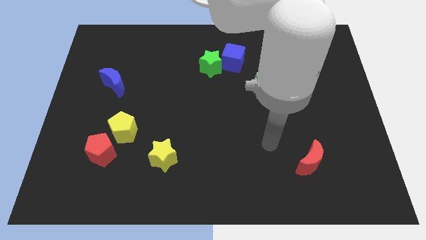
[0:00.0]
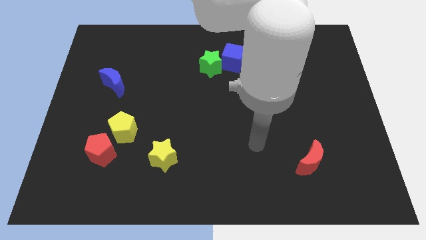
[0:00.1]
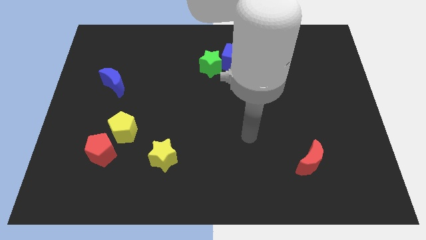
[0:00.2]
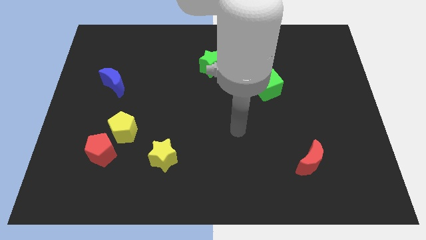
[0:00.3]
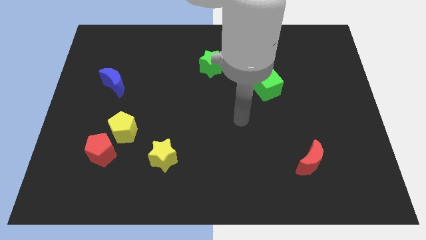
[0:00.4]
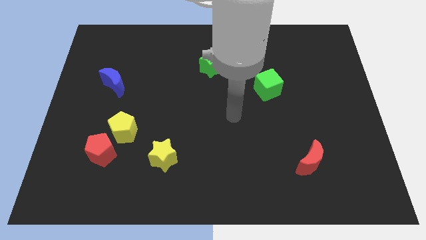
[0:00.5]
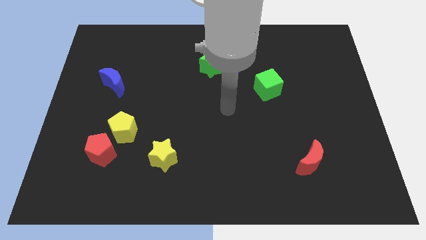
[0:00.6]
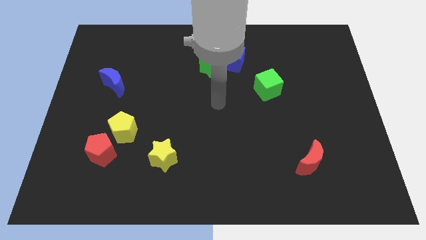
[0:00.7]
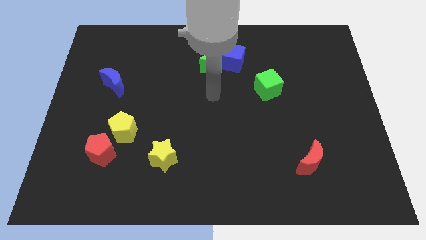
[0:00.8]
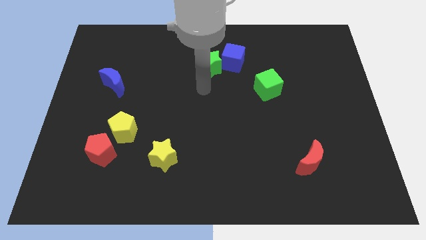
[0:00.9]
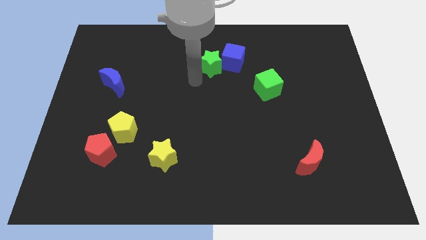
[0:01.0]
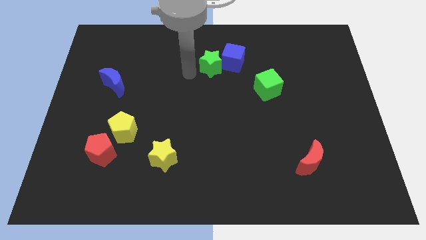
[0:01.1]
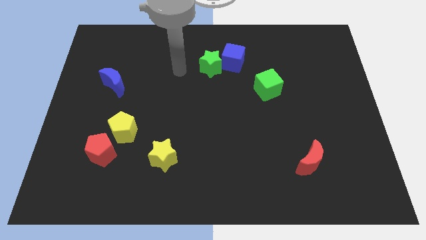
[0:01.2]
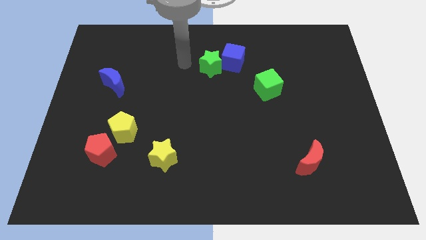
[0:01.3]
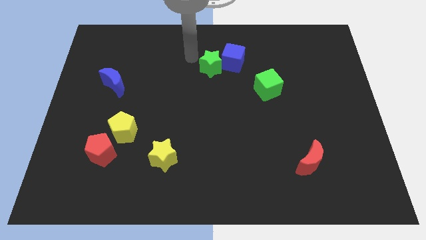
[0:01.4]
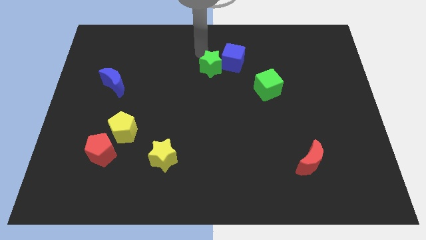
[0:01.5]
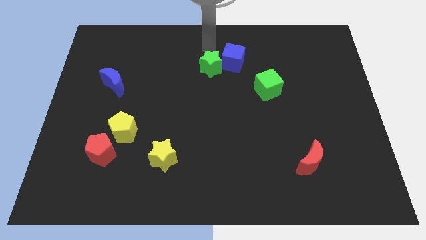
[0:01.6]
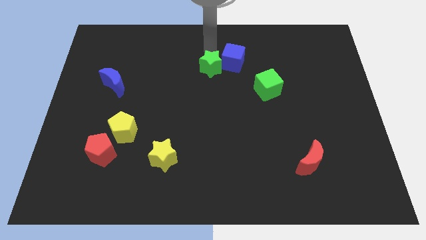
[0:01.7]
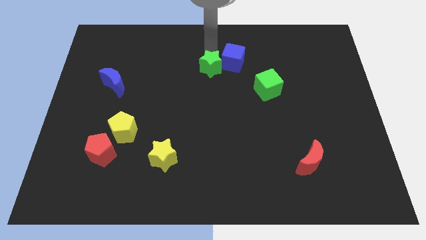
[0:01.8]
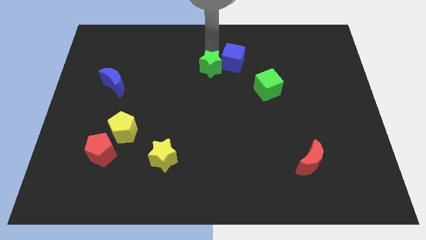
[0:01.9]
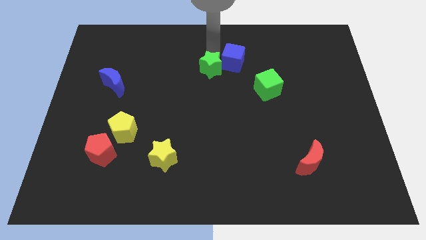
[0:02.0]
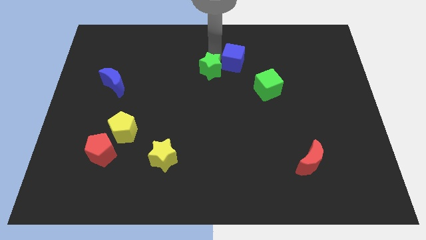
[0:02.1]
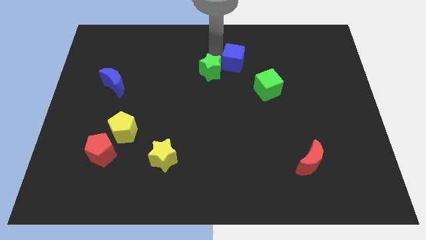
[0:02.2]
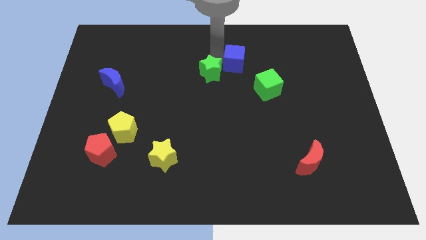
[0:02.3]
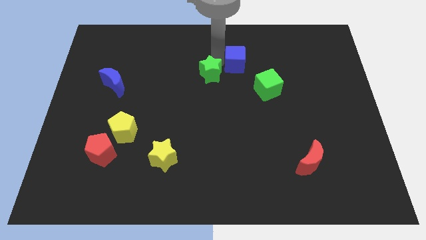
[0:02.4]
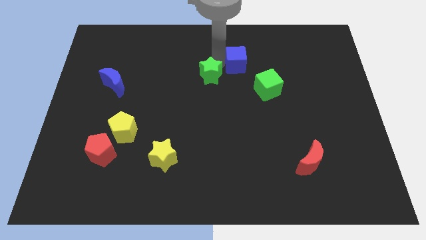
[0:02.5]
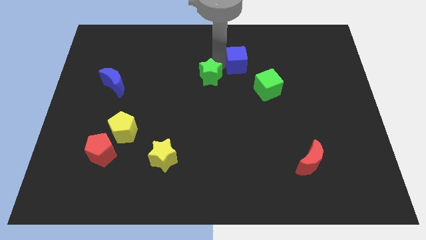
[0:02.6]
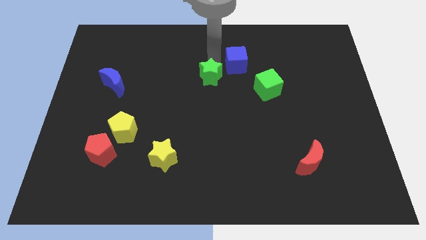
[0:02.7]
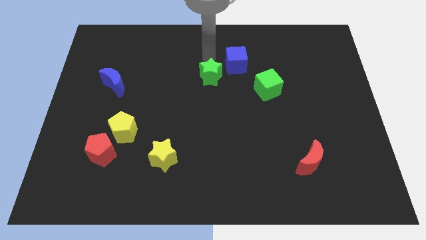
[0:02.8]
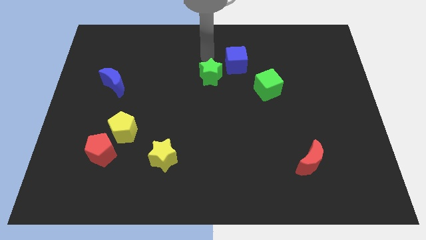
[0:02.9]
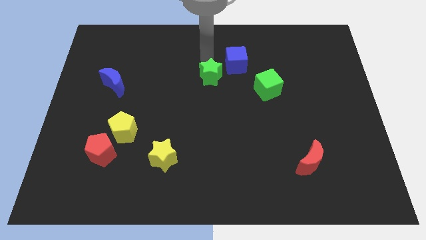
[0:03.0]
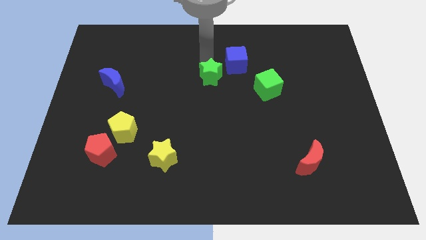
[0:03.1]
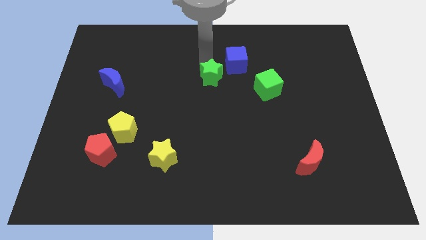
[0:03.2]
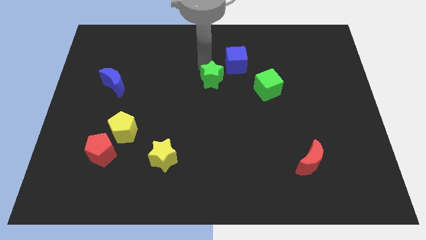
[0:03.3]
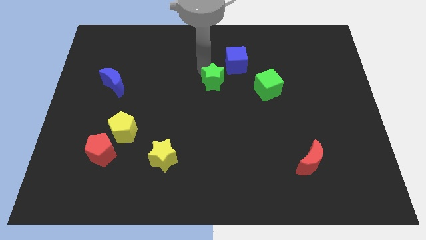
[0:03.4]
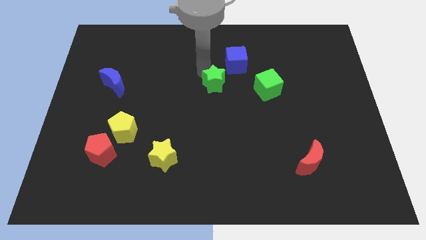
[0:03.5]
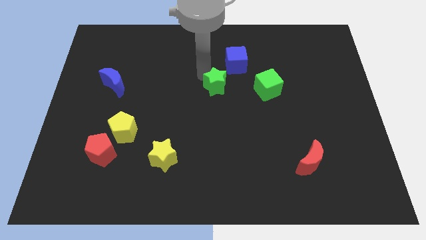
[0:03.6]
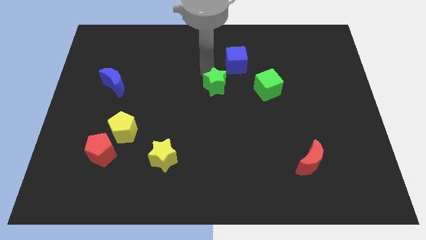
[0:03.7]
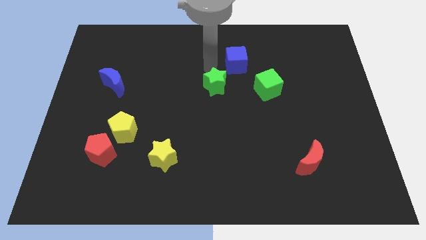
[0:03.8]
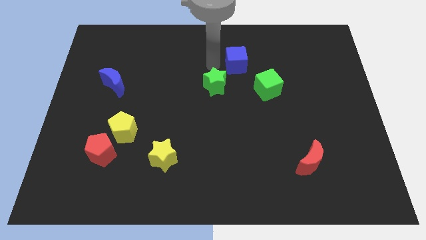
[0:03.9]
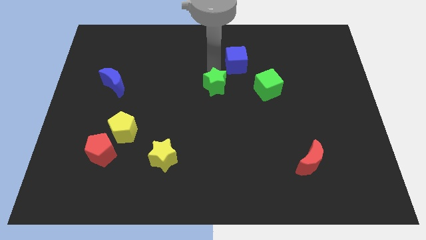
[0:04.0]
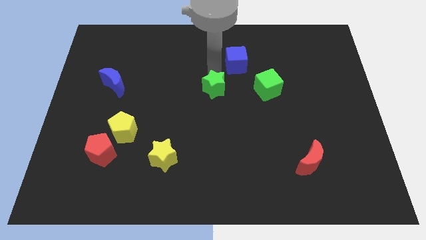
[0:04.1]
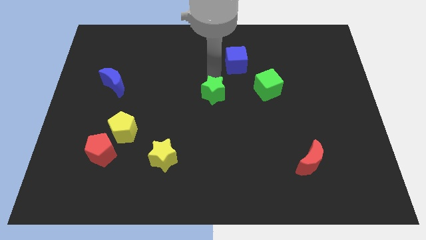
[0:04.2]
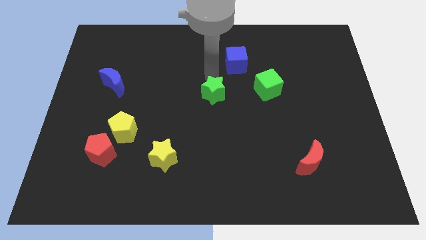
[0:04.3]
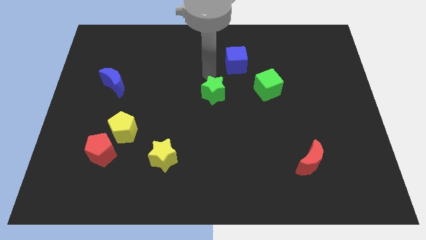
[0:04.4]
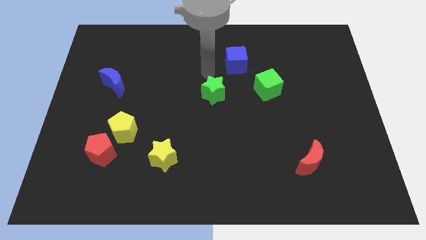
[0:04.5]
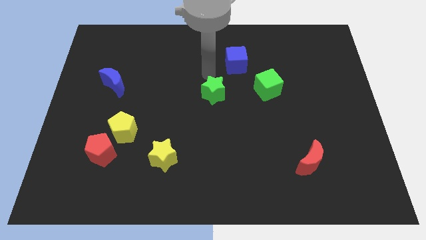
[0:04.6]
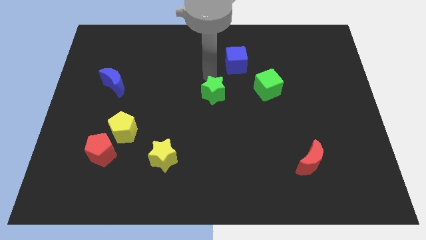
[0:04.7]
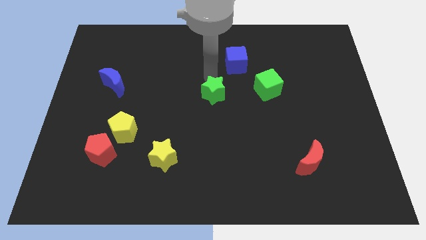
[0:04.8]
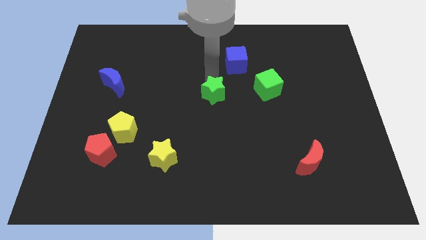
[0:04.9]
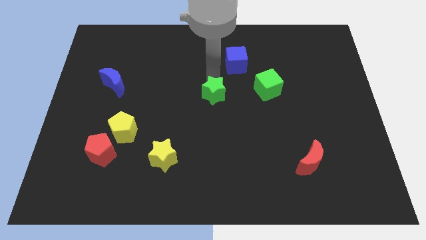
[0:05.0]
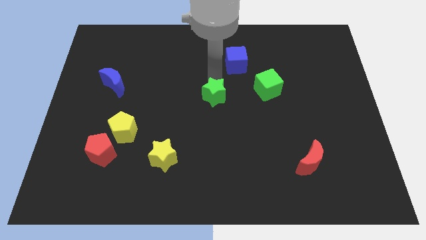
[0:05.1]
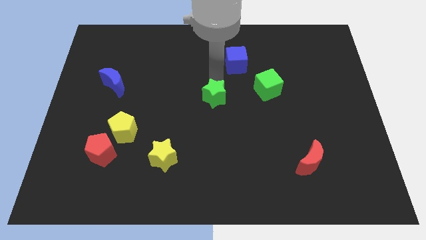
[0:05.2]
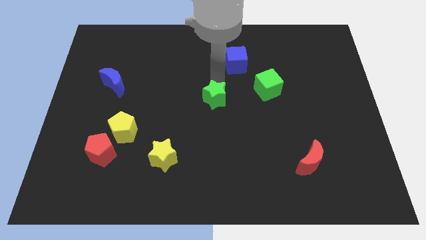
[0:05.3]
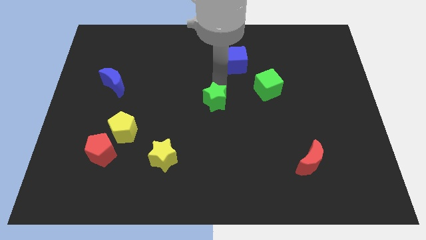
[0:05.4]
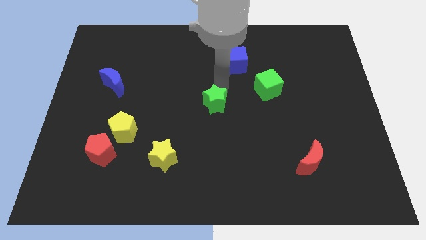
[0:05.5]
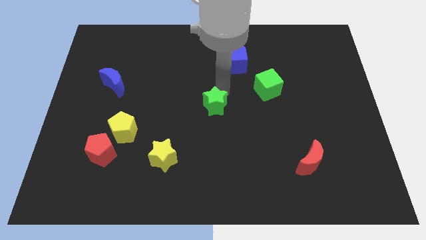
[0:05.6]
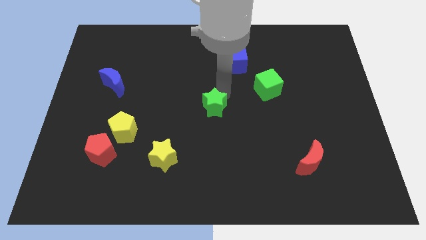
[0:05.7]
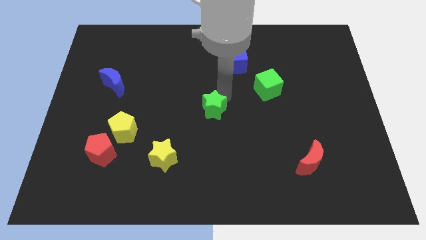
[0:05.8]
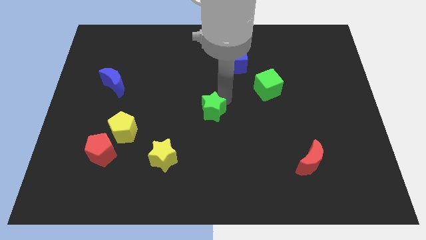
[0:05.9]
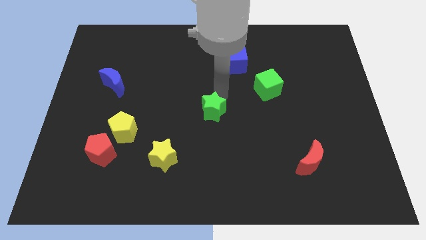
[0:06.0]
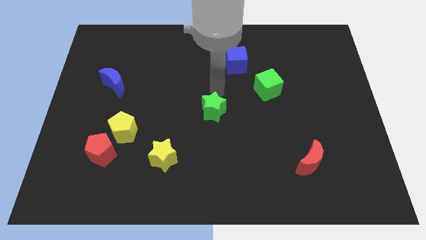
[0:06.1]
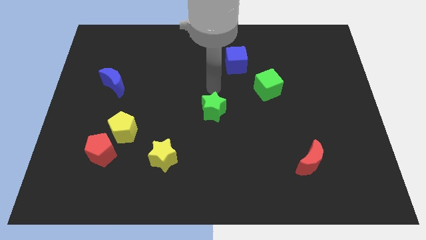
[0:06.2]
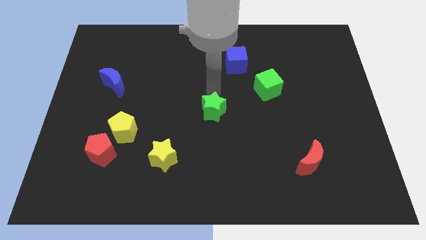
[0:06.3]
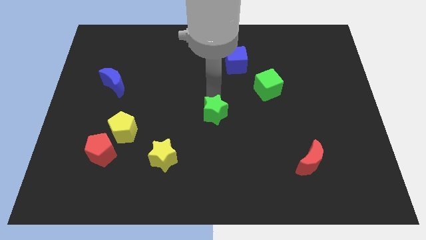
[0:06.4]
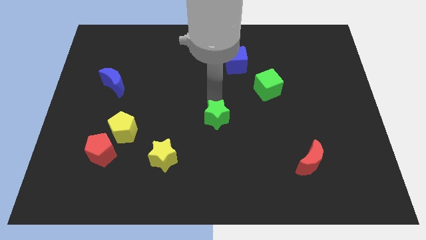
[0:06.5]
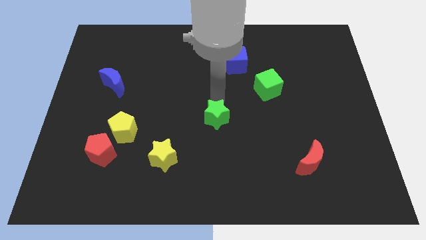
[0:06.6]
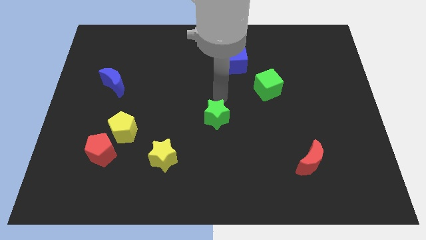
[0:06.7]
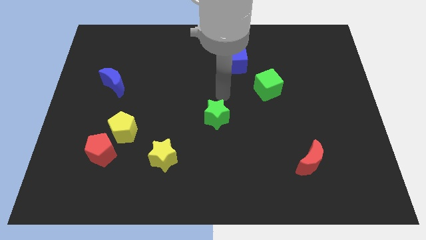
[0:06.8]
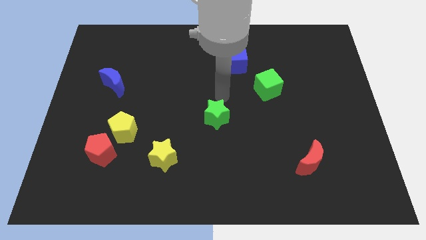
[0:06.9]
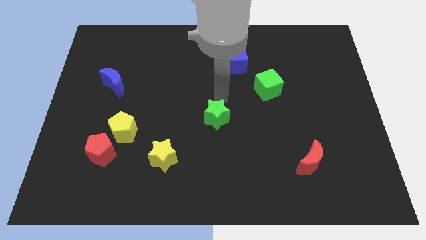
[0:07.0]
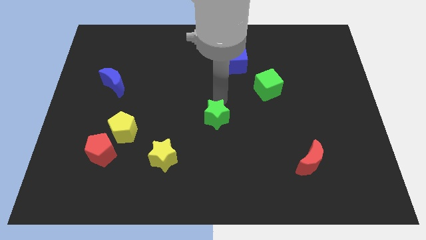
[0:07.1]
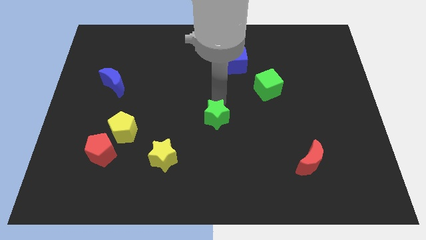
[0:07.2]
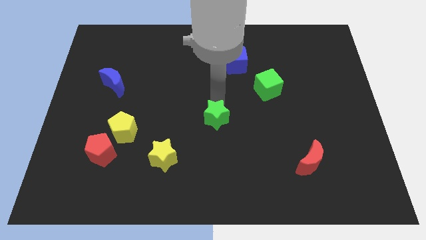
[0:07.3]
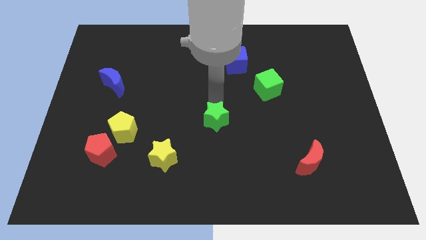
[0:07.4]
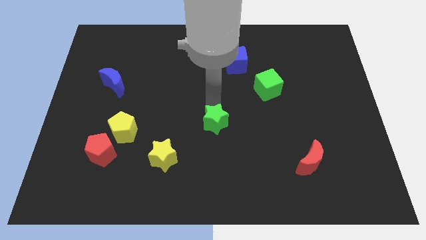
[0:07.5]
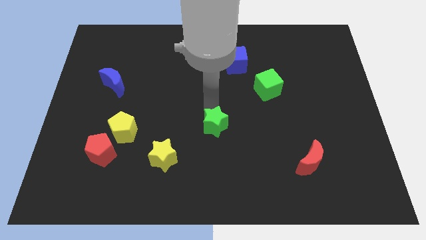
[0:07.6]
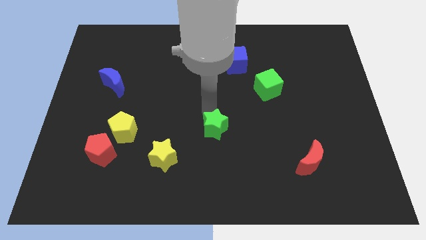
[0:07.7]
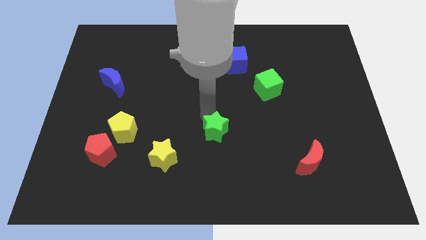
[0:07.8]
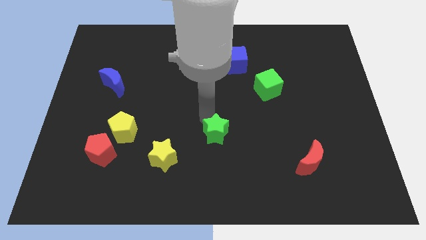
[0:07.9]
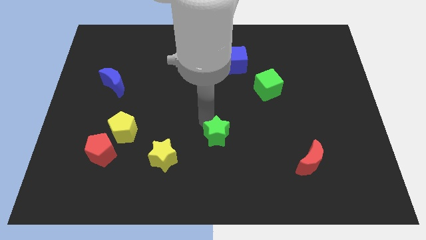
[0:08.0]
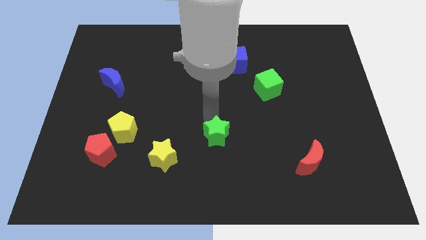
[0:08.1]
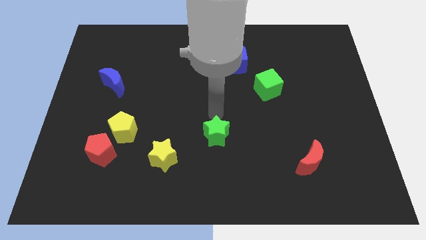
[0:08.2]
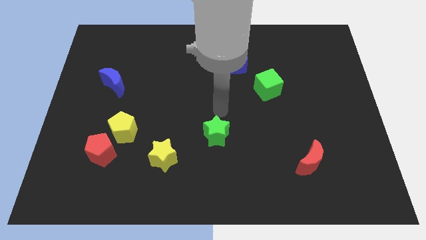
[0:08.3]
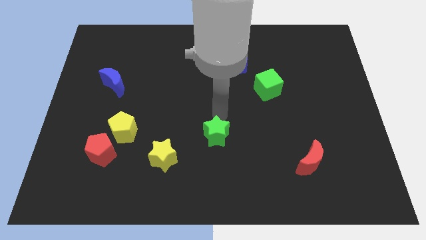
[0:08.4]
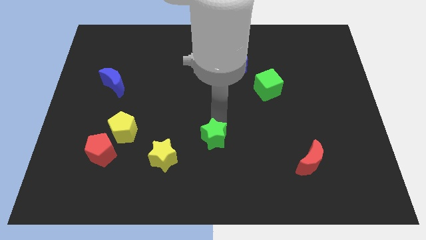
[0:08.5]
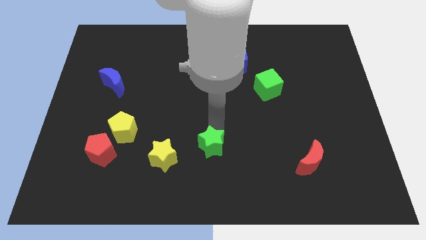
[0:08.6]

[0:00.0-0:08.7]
push the green star to the right of the yellow star
